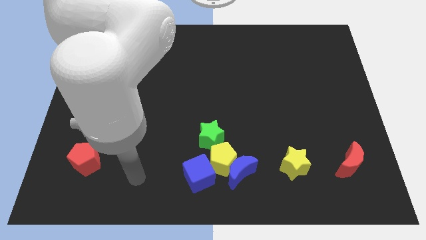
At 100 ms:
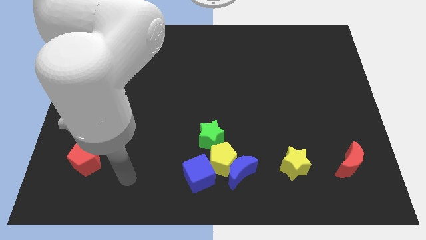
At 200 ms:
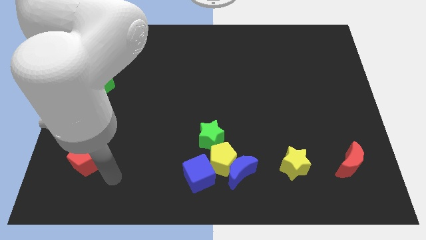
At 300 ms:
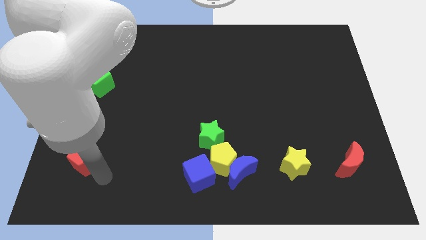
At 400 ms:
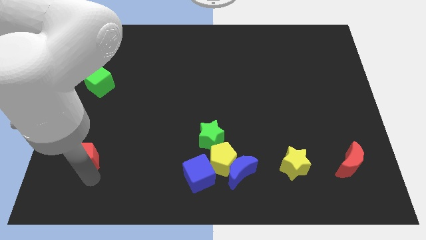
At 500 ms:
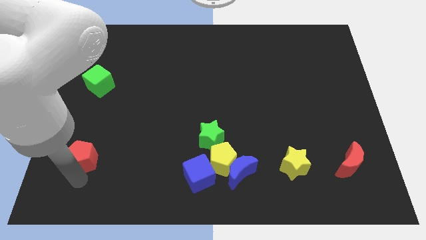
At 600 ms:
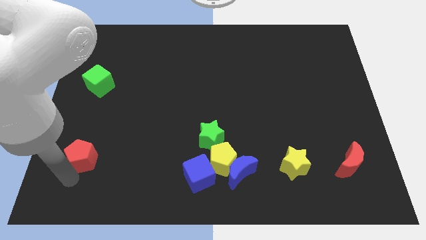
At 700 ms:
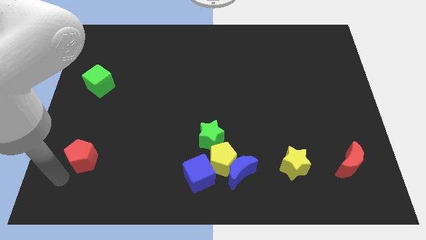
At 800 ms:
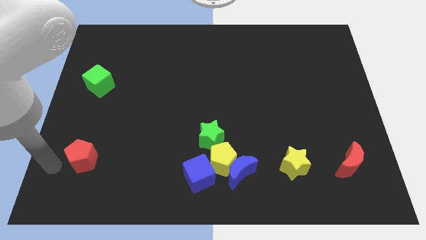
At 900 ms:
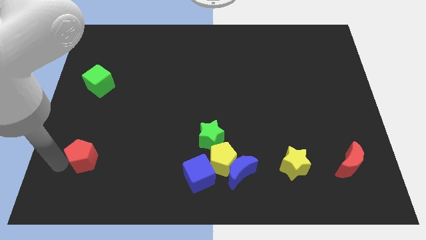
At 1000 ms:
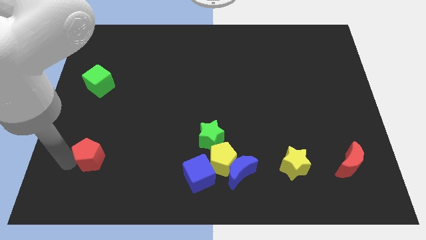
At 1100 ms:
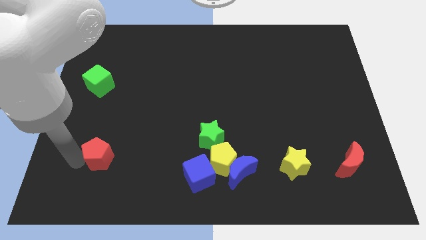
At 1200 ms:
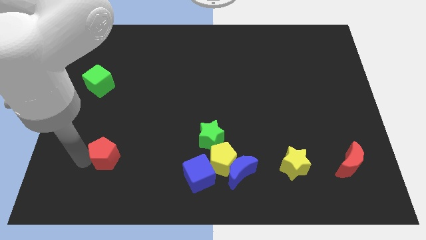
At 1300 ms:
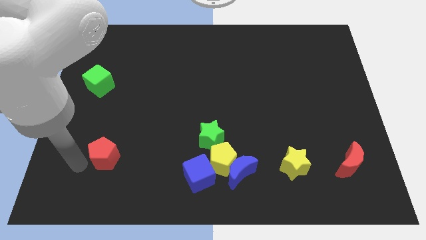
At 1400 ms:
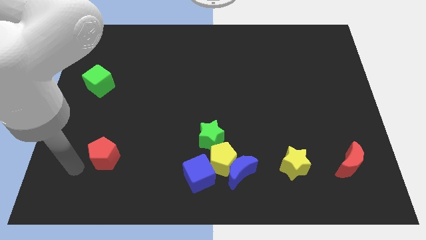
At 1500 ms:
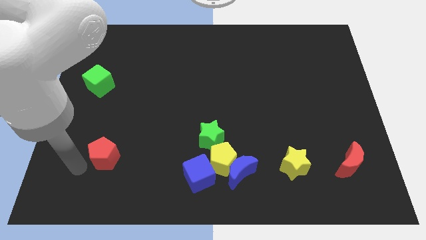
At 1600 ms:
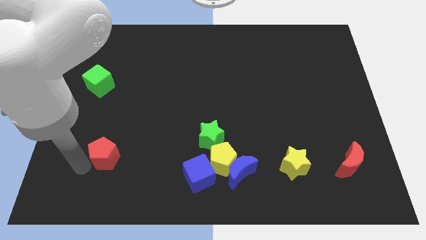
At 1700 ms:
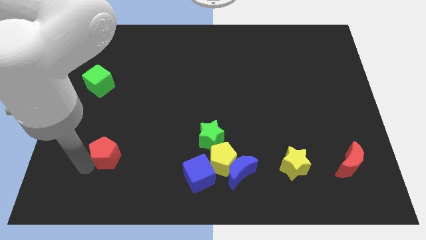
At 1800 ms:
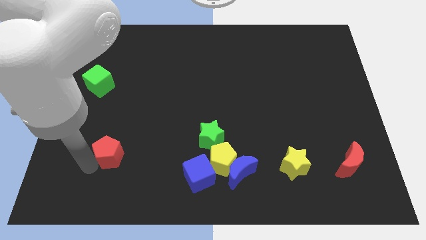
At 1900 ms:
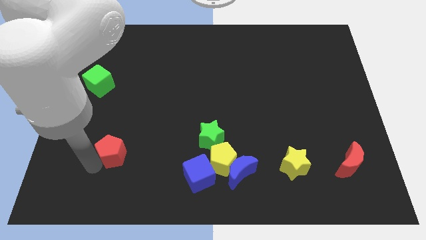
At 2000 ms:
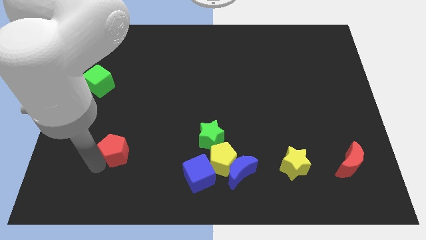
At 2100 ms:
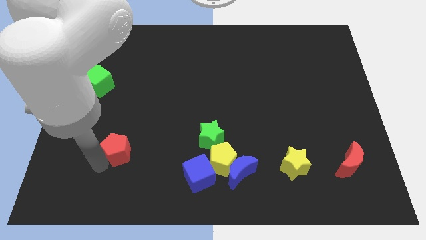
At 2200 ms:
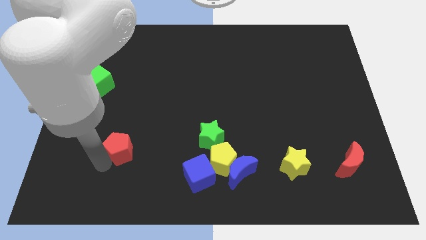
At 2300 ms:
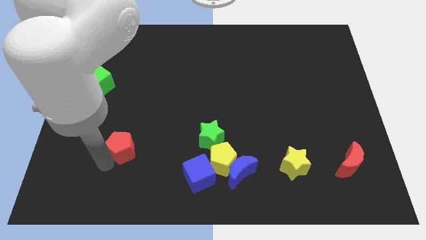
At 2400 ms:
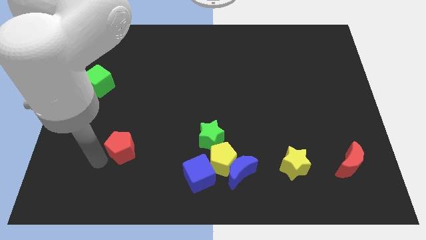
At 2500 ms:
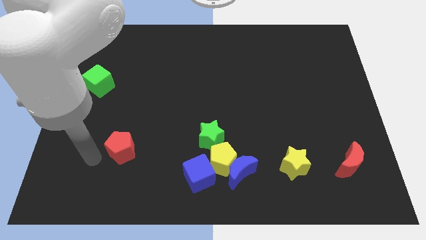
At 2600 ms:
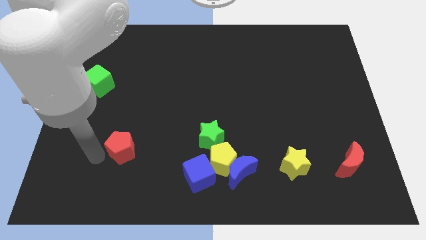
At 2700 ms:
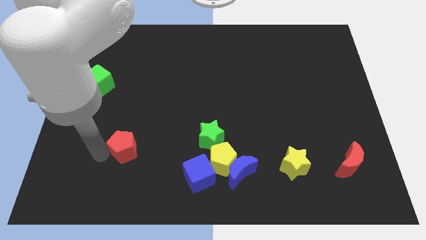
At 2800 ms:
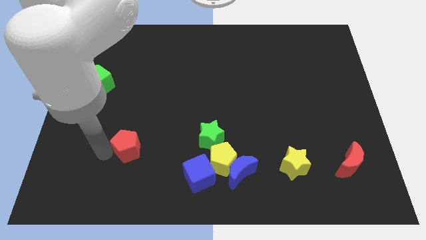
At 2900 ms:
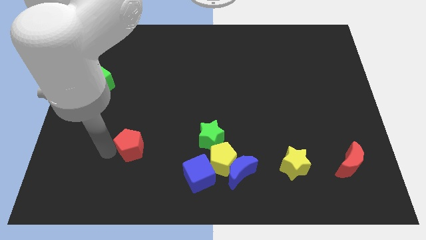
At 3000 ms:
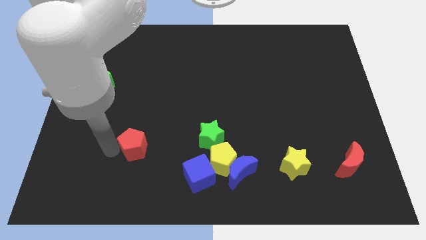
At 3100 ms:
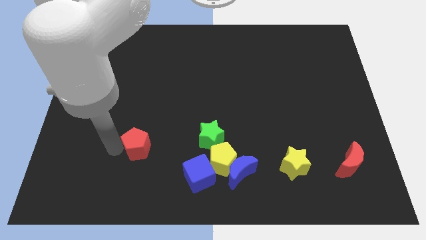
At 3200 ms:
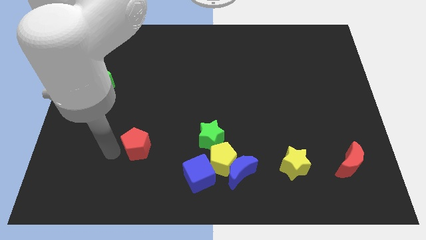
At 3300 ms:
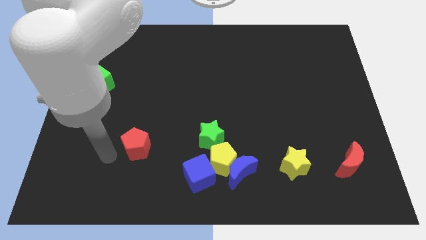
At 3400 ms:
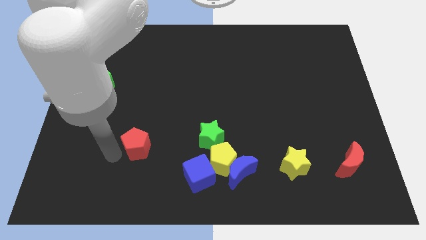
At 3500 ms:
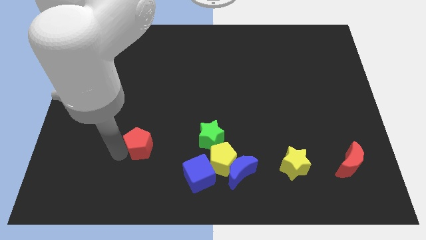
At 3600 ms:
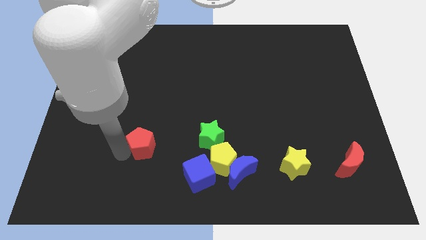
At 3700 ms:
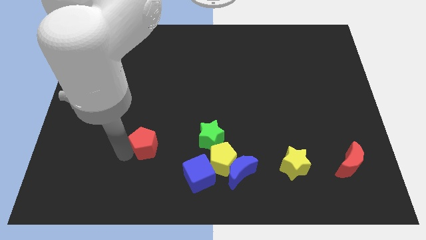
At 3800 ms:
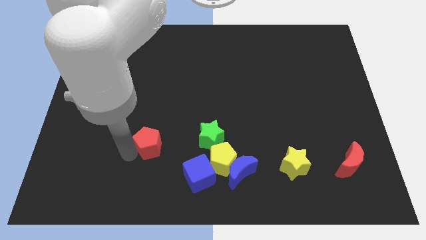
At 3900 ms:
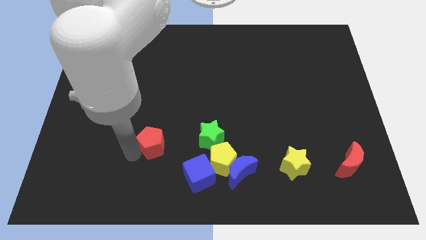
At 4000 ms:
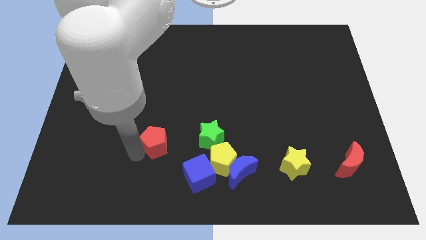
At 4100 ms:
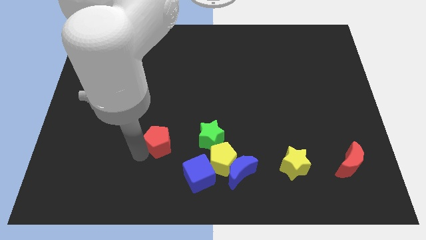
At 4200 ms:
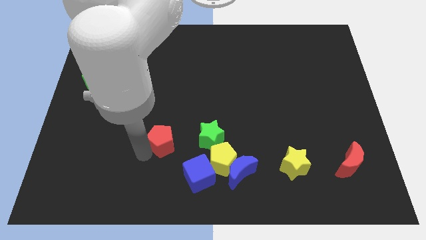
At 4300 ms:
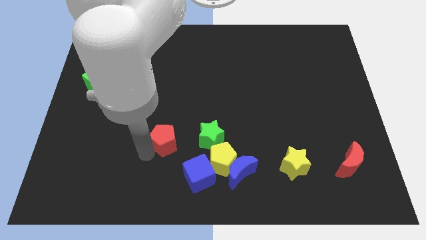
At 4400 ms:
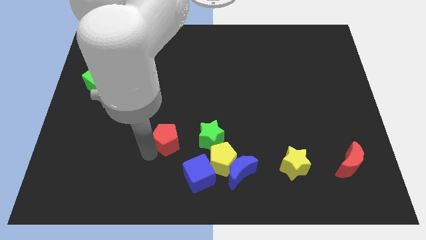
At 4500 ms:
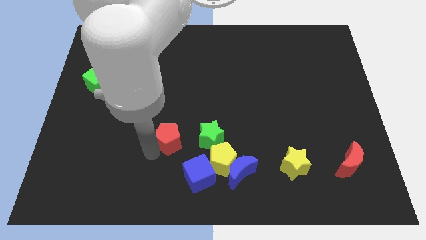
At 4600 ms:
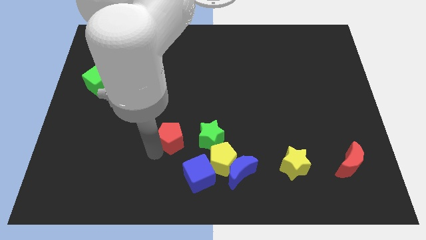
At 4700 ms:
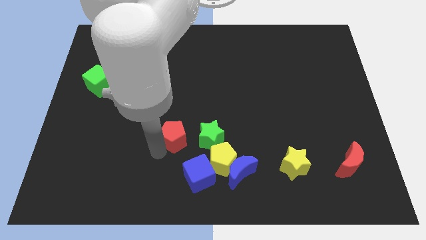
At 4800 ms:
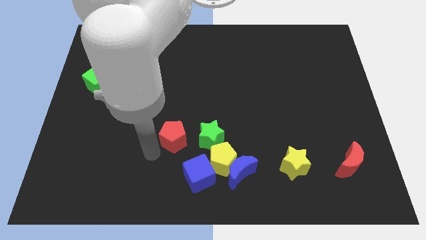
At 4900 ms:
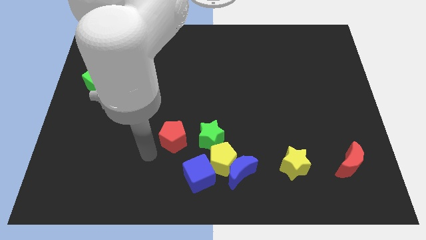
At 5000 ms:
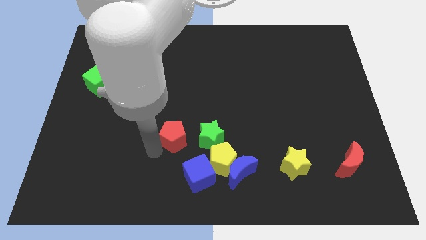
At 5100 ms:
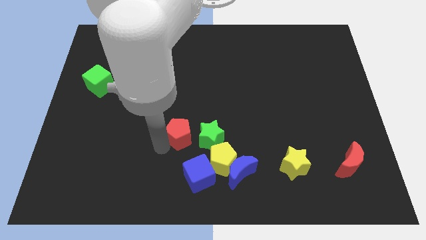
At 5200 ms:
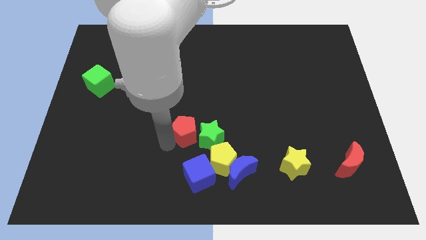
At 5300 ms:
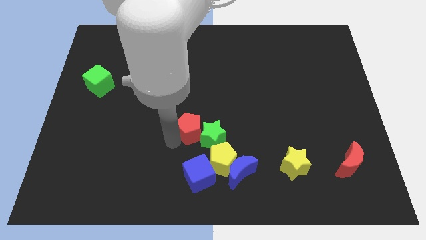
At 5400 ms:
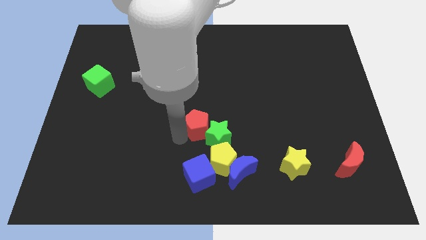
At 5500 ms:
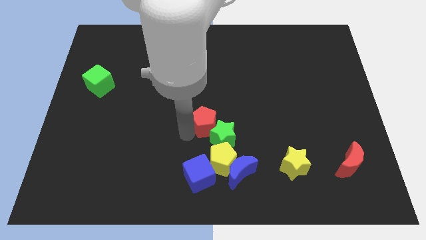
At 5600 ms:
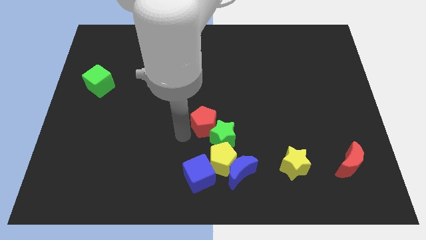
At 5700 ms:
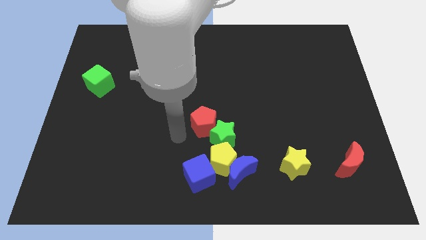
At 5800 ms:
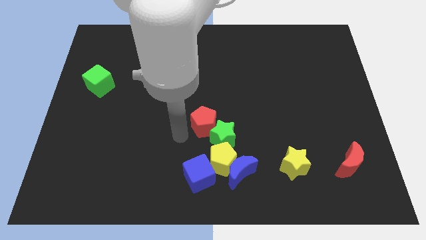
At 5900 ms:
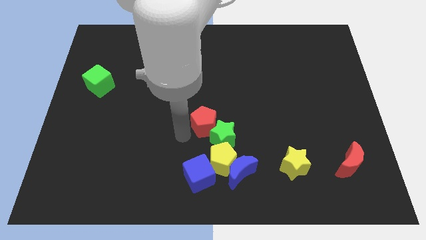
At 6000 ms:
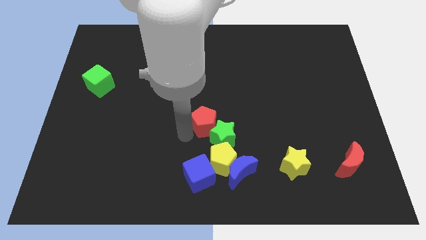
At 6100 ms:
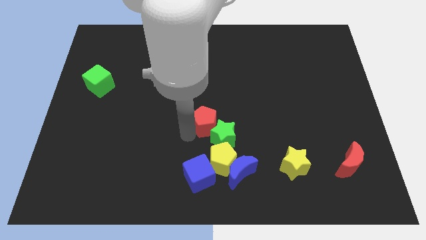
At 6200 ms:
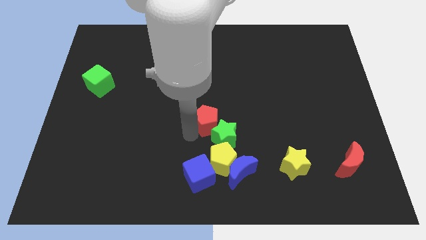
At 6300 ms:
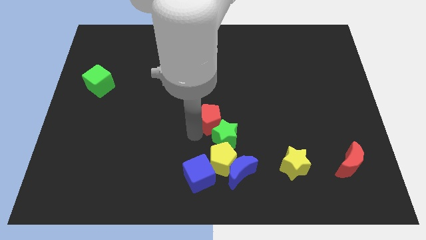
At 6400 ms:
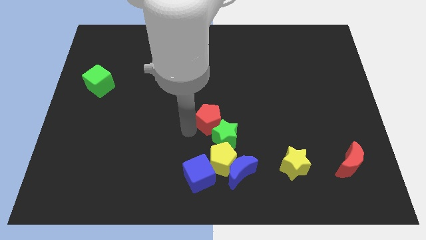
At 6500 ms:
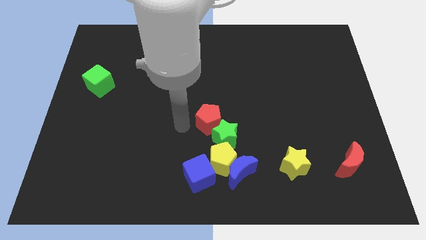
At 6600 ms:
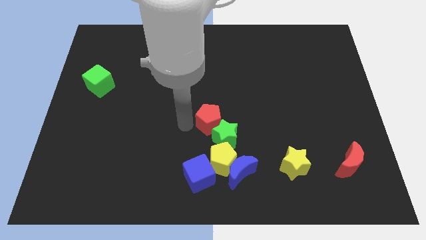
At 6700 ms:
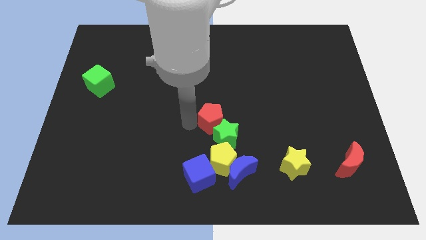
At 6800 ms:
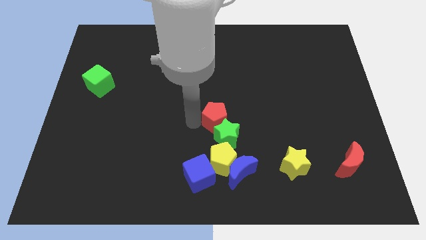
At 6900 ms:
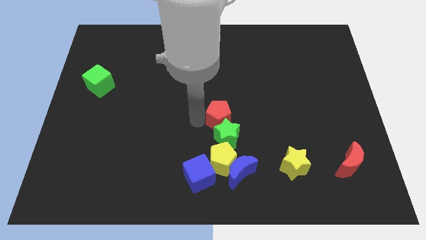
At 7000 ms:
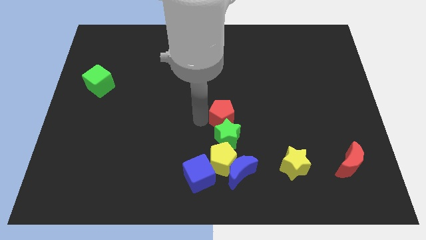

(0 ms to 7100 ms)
put the red pentagon diagonally up and to the right of the green star

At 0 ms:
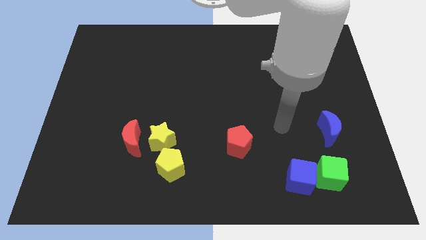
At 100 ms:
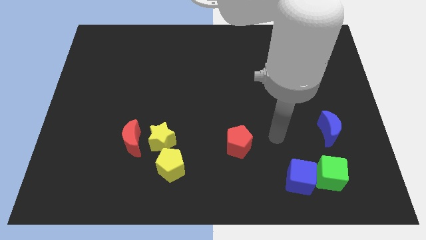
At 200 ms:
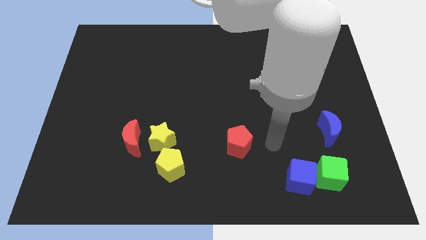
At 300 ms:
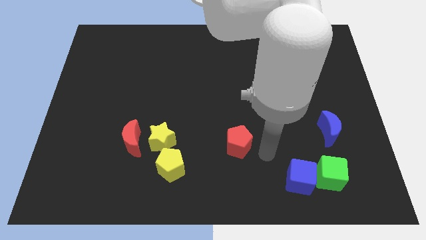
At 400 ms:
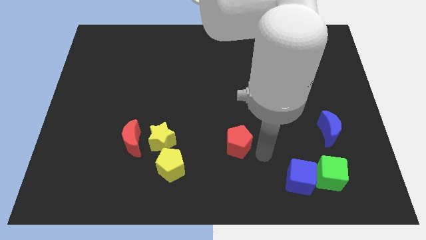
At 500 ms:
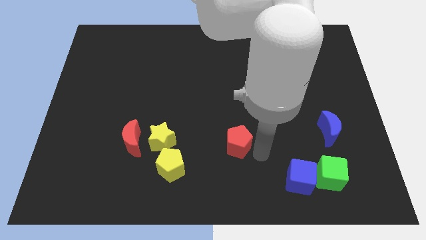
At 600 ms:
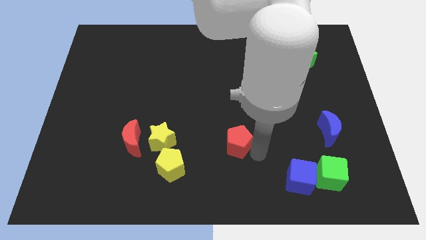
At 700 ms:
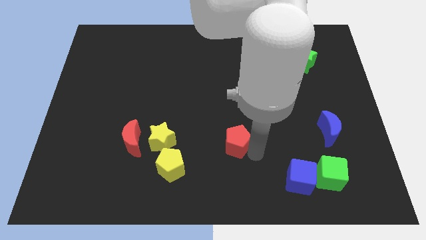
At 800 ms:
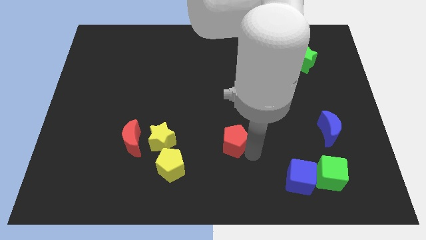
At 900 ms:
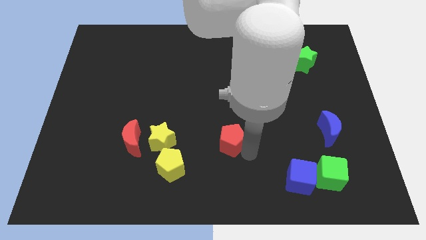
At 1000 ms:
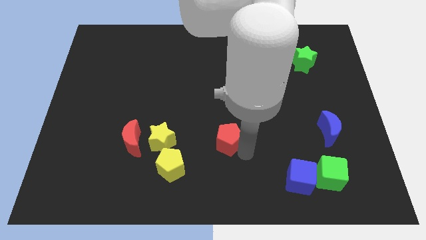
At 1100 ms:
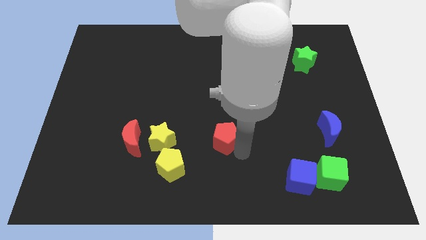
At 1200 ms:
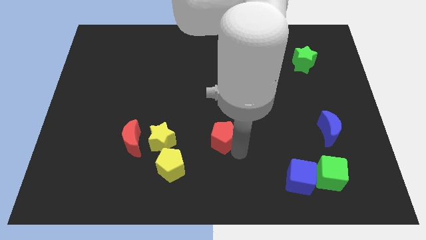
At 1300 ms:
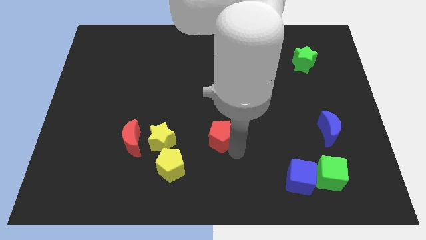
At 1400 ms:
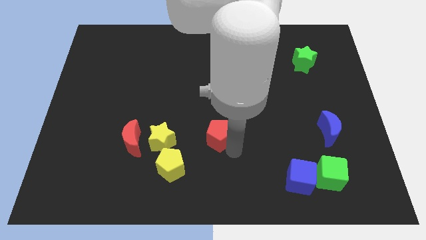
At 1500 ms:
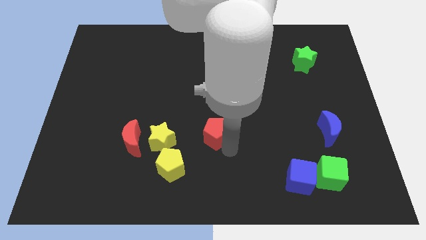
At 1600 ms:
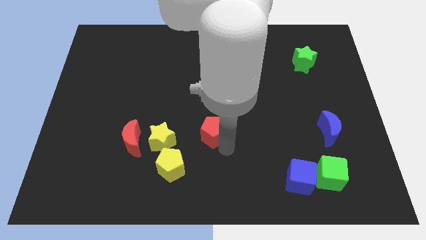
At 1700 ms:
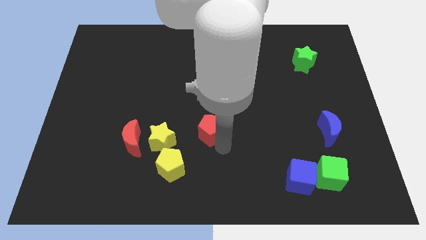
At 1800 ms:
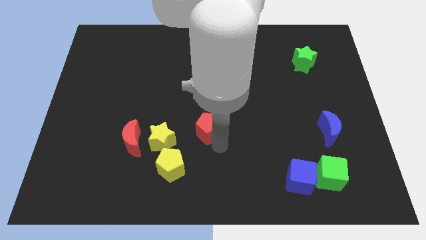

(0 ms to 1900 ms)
move the red pentagon to the top right side of the yellow star
